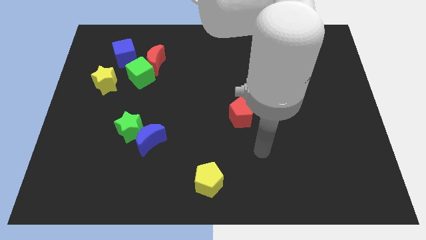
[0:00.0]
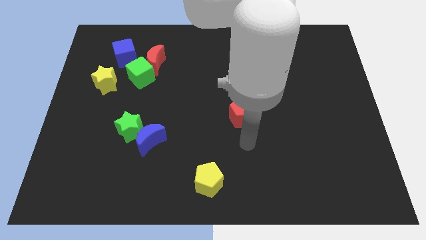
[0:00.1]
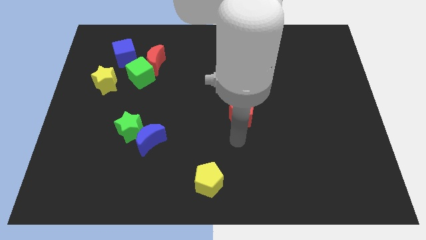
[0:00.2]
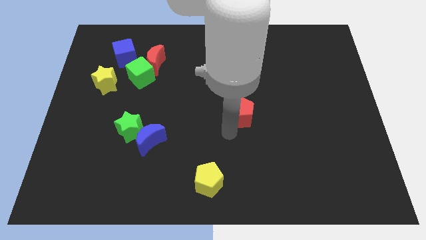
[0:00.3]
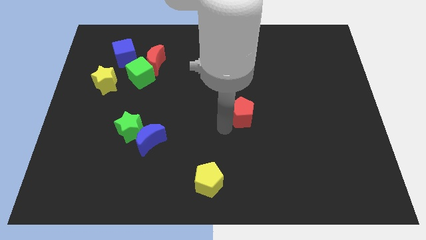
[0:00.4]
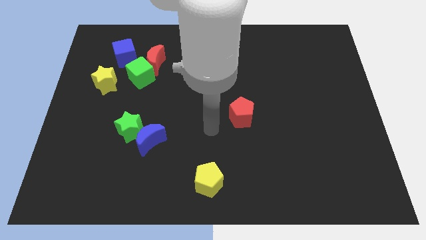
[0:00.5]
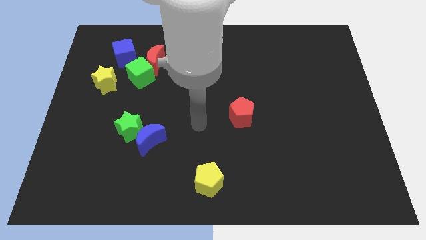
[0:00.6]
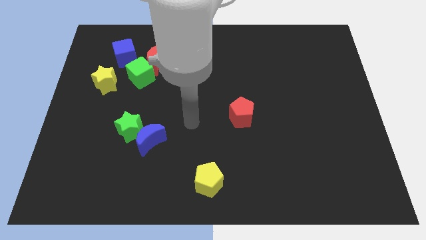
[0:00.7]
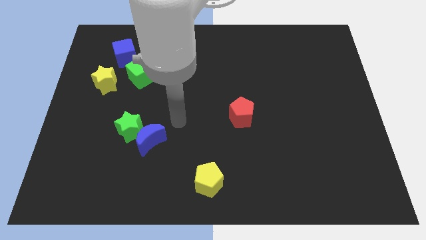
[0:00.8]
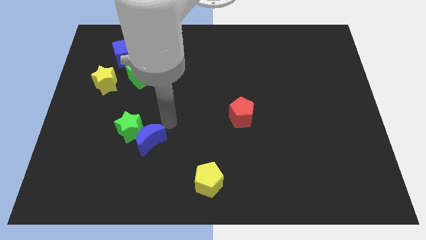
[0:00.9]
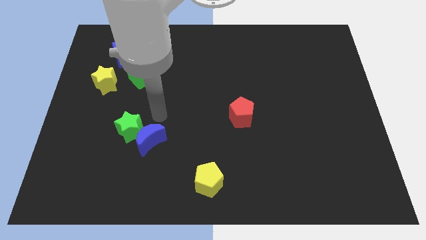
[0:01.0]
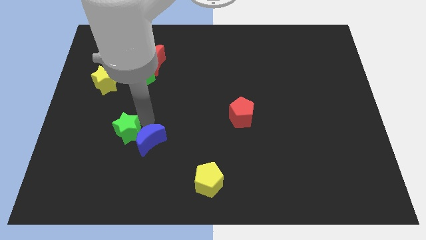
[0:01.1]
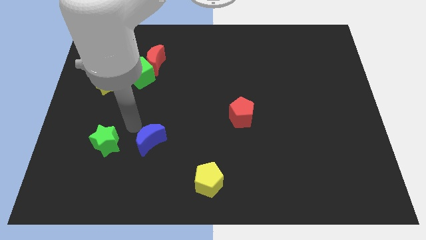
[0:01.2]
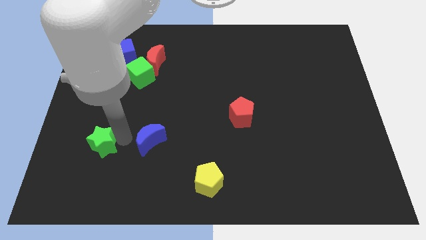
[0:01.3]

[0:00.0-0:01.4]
pull the blue moon apart from the green star

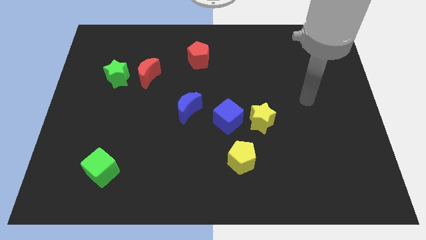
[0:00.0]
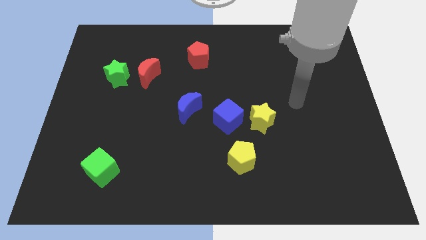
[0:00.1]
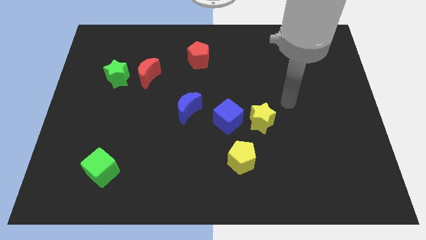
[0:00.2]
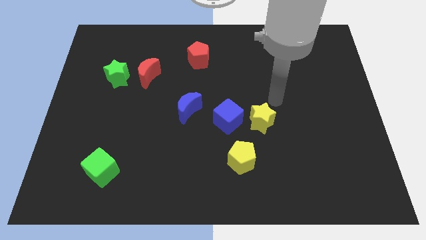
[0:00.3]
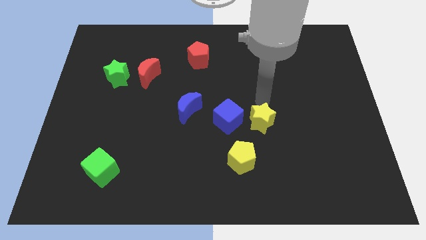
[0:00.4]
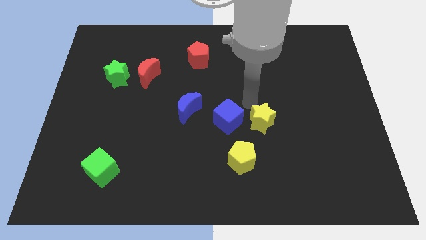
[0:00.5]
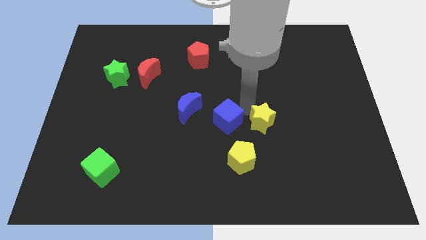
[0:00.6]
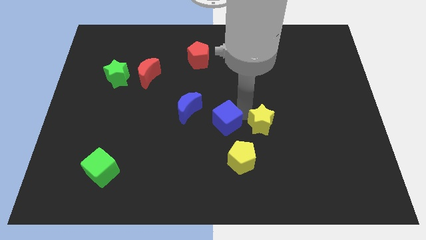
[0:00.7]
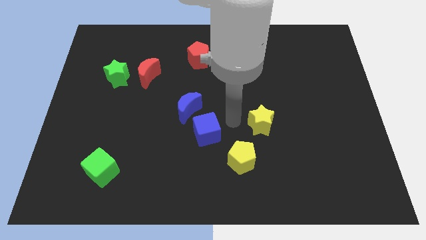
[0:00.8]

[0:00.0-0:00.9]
separate the yellow star from the blue cube

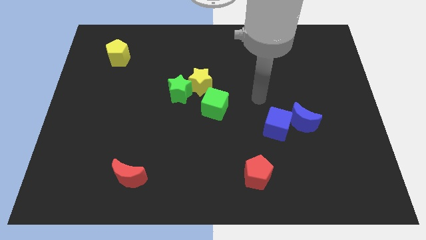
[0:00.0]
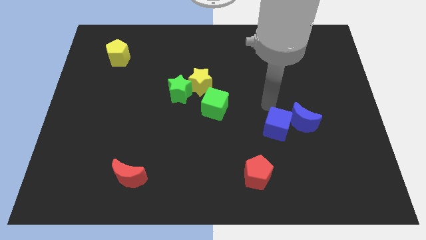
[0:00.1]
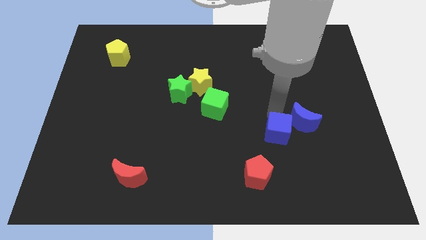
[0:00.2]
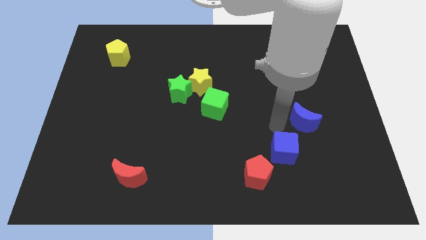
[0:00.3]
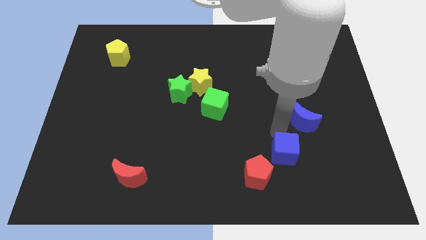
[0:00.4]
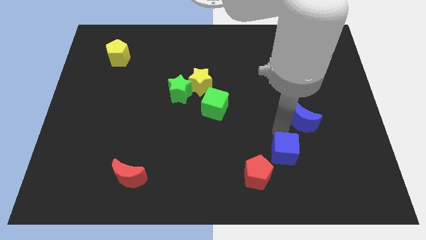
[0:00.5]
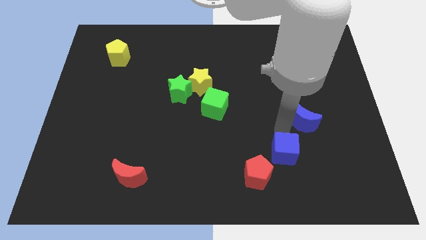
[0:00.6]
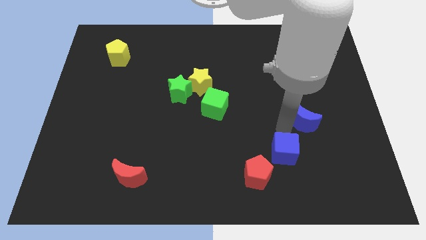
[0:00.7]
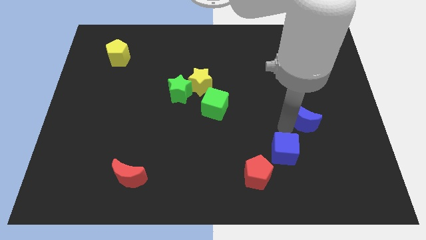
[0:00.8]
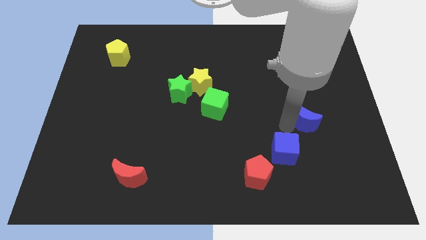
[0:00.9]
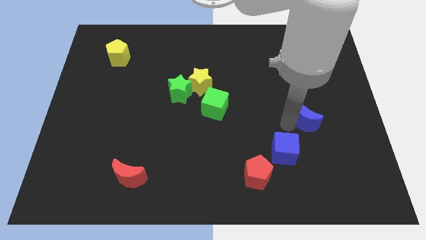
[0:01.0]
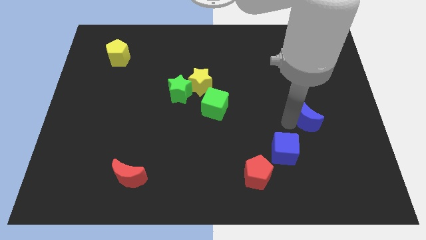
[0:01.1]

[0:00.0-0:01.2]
pull the blue moon apart from the blue cube

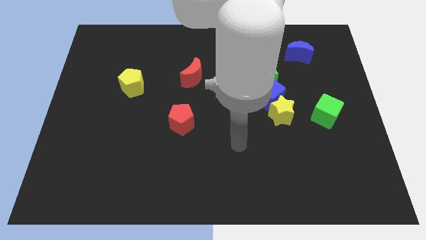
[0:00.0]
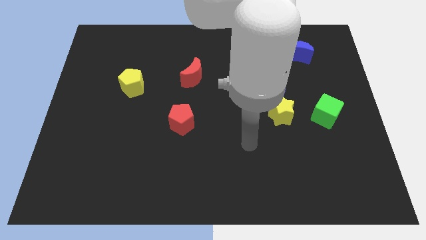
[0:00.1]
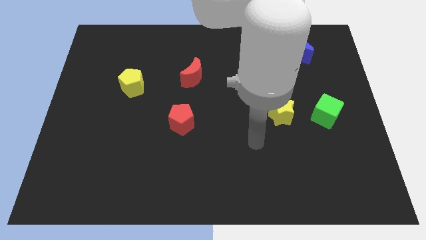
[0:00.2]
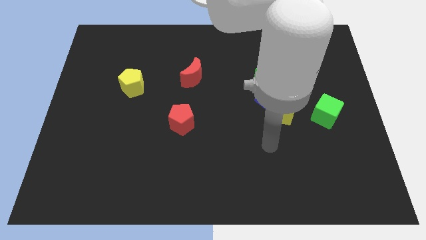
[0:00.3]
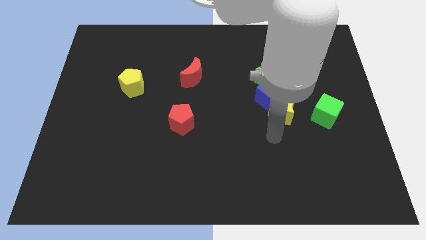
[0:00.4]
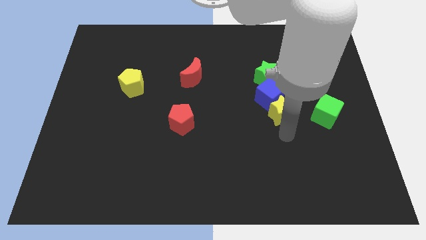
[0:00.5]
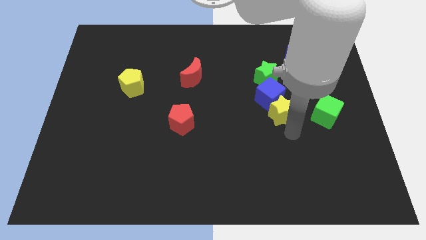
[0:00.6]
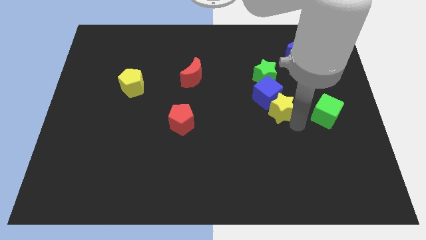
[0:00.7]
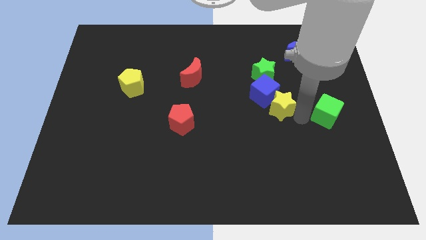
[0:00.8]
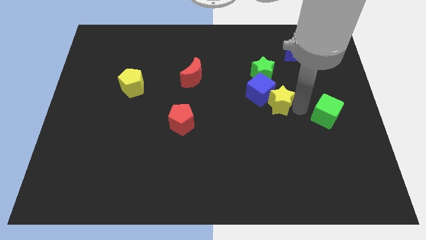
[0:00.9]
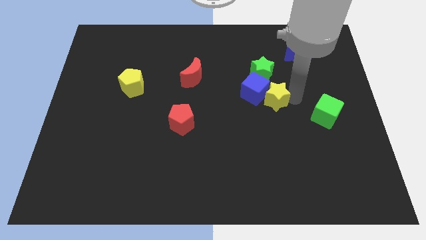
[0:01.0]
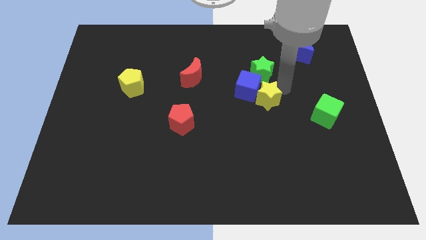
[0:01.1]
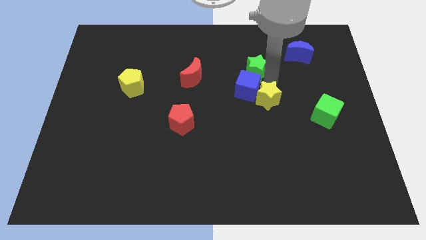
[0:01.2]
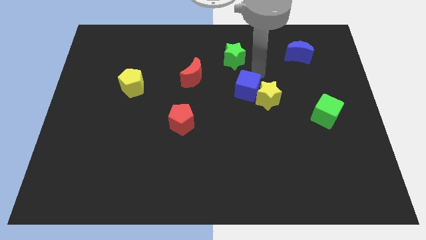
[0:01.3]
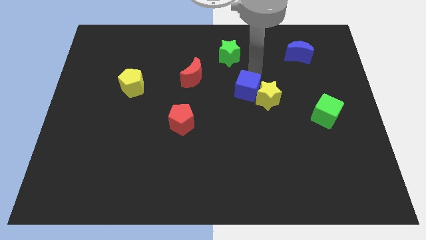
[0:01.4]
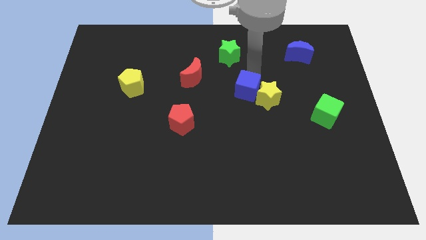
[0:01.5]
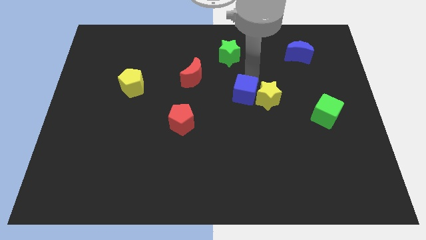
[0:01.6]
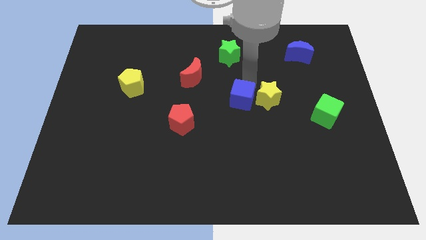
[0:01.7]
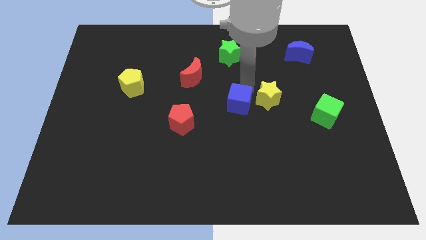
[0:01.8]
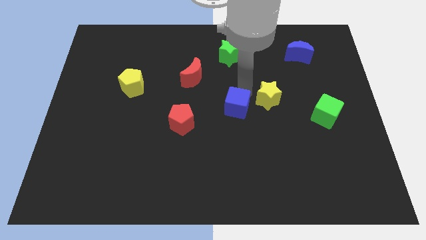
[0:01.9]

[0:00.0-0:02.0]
pull the blue cube apart from the yellow star and green star

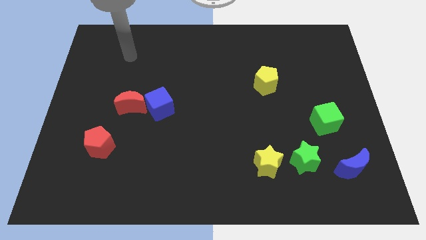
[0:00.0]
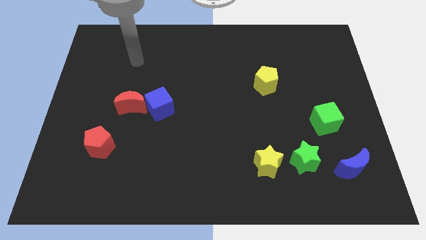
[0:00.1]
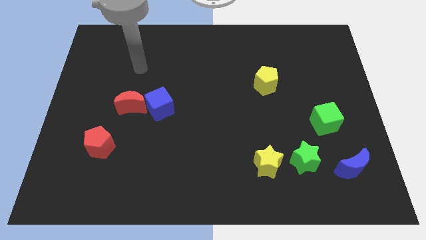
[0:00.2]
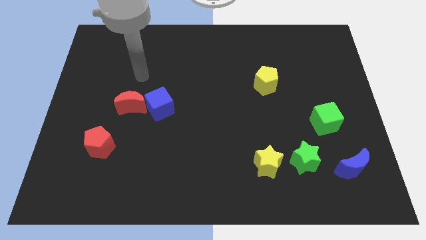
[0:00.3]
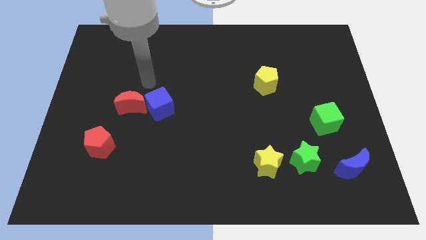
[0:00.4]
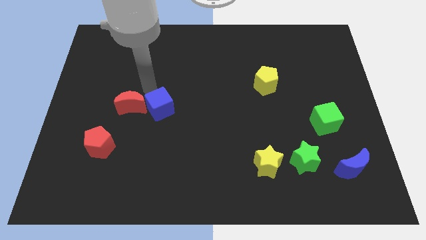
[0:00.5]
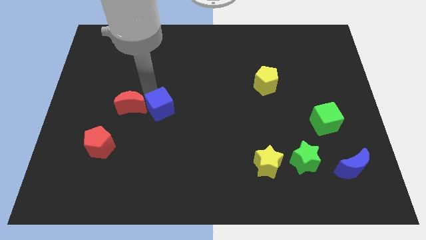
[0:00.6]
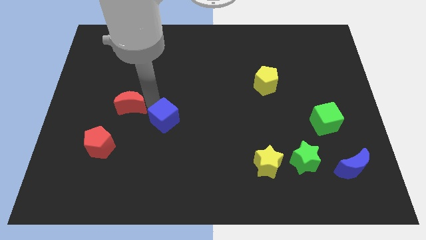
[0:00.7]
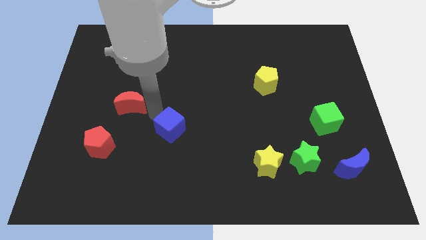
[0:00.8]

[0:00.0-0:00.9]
move the red moon away from the blue cube

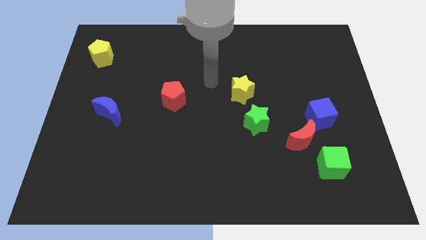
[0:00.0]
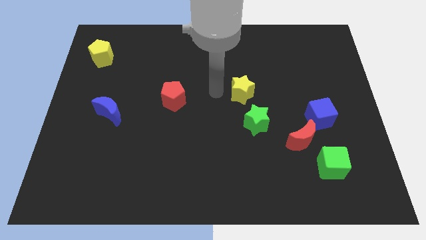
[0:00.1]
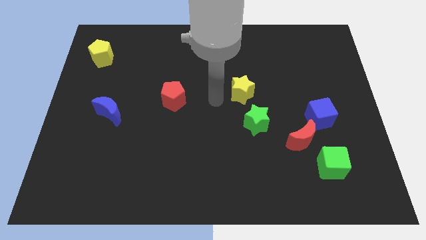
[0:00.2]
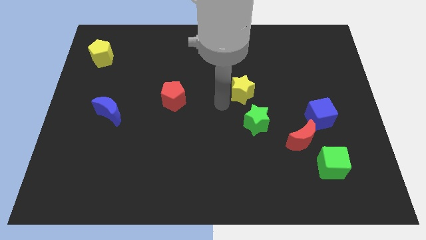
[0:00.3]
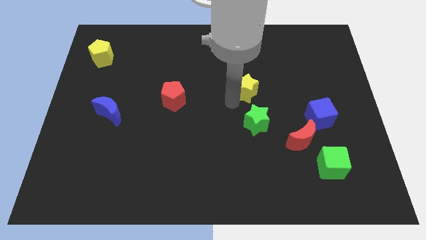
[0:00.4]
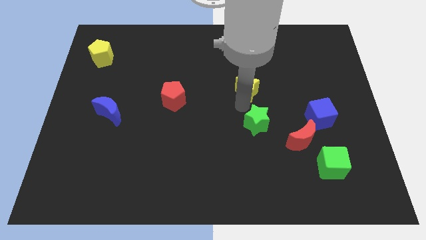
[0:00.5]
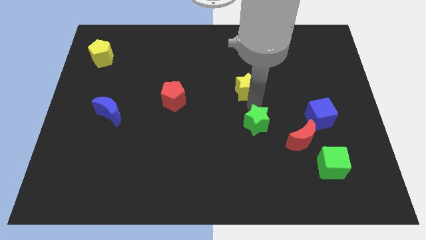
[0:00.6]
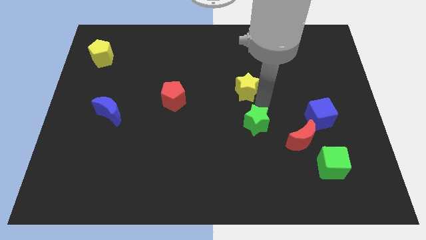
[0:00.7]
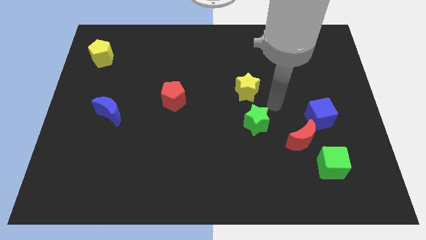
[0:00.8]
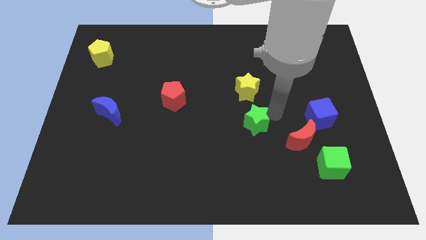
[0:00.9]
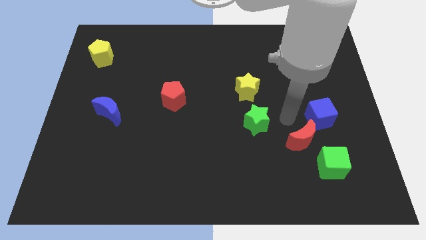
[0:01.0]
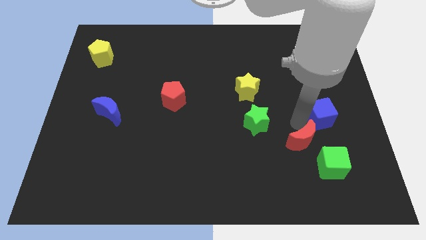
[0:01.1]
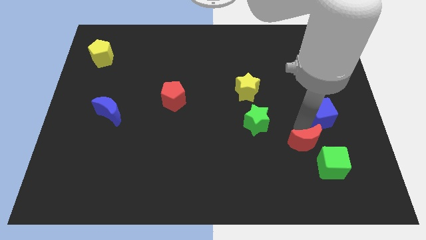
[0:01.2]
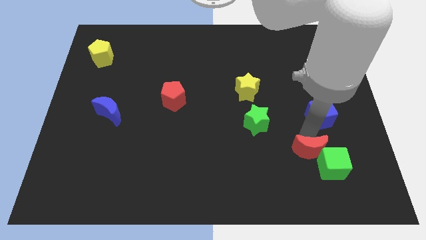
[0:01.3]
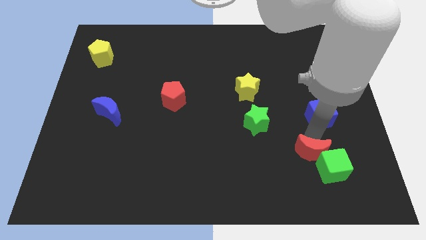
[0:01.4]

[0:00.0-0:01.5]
move the blue cube away from the red moon

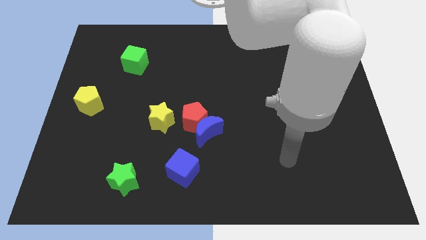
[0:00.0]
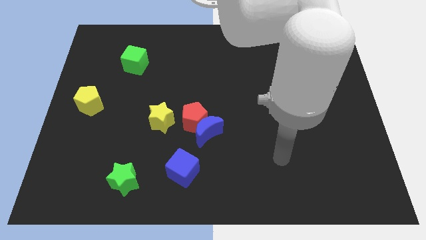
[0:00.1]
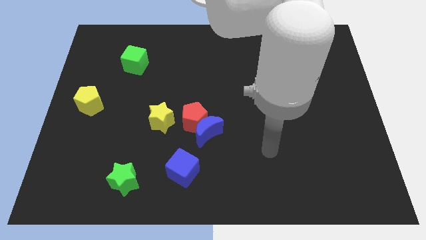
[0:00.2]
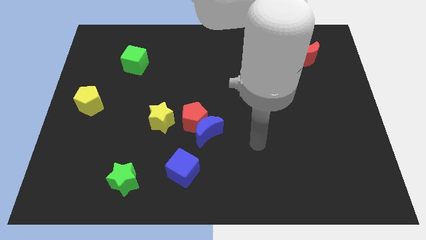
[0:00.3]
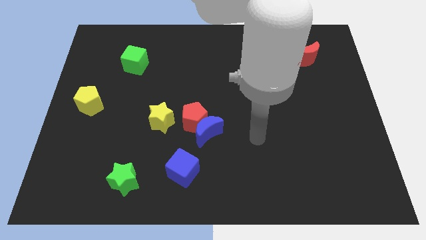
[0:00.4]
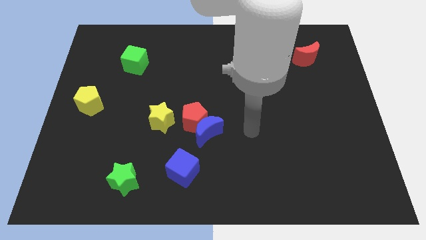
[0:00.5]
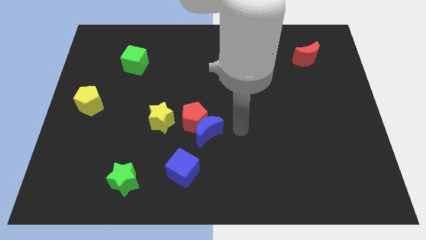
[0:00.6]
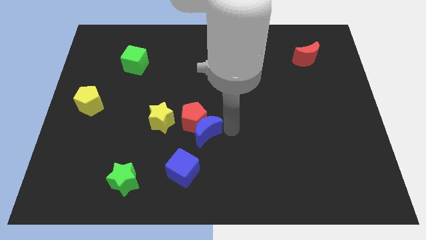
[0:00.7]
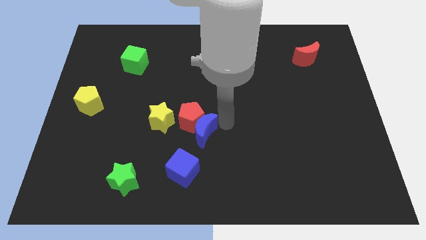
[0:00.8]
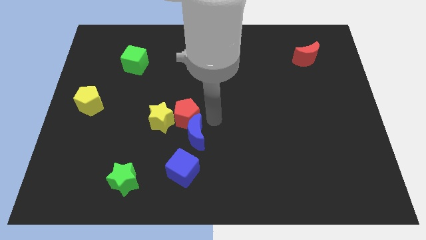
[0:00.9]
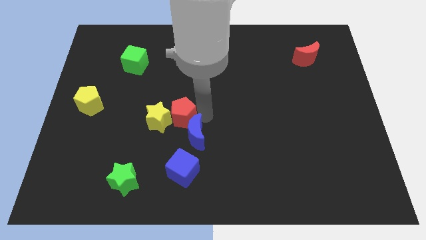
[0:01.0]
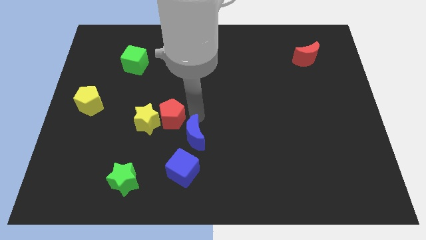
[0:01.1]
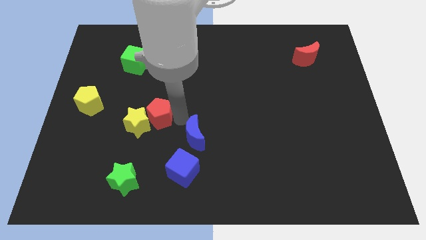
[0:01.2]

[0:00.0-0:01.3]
pull the blue moon apart from the red pentagon
